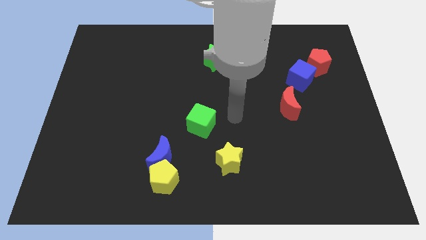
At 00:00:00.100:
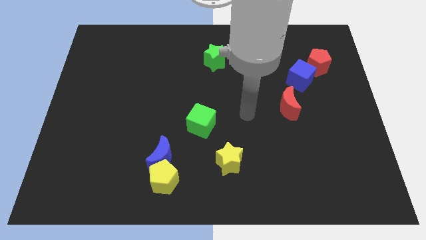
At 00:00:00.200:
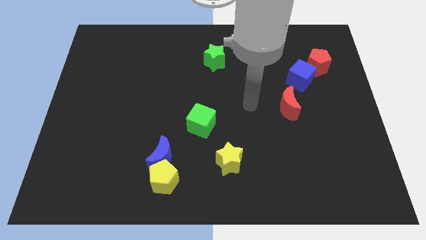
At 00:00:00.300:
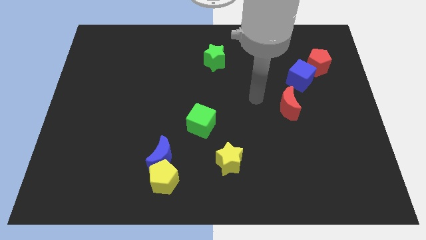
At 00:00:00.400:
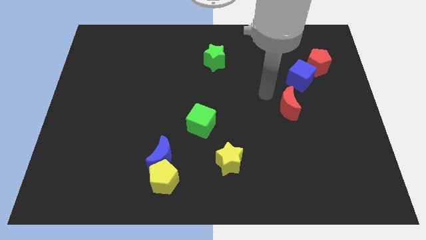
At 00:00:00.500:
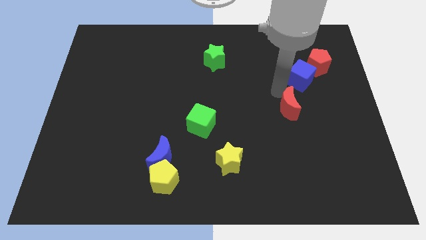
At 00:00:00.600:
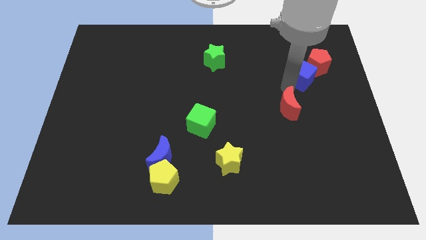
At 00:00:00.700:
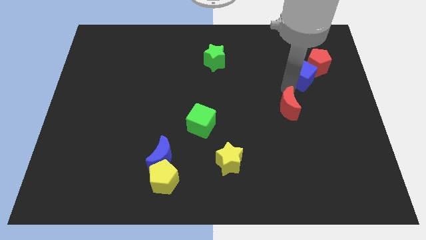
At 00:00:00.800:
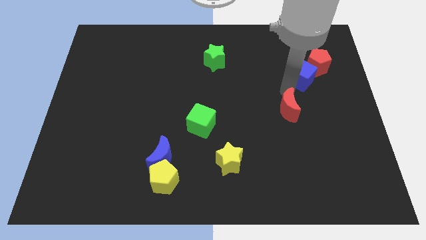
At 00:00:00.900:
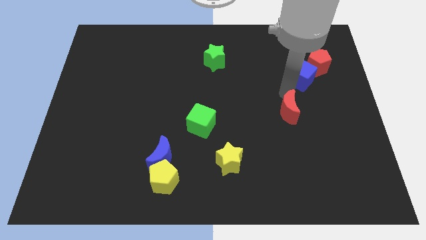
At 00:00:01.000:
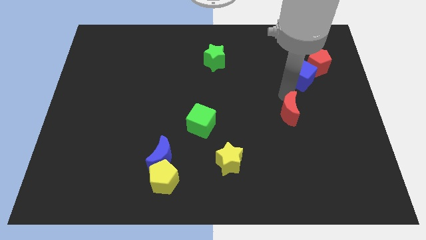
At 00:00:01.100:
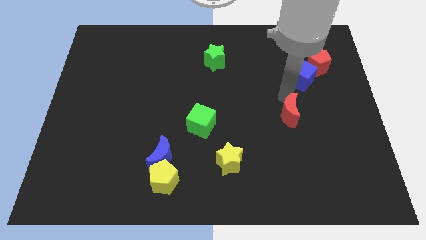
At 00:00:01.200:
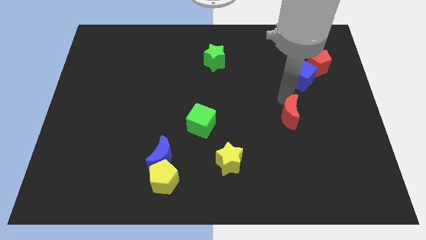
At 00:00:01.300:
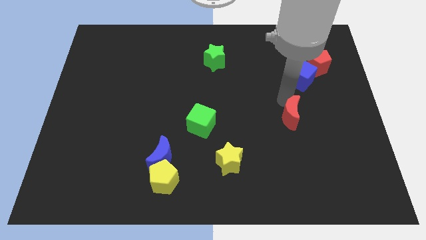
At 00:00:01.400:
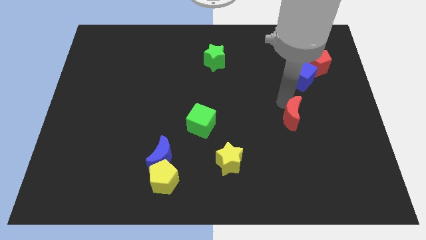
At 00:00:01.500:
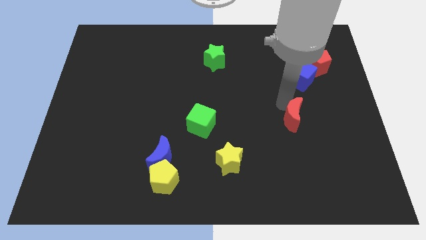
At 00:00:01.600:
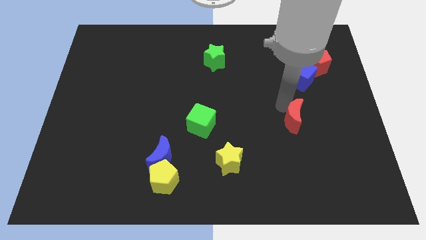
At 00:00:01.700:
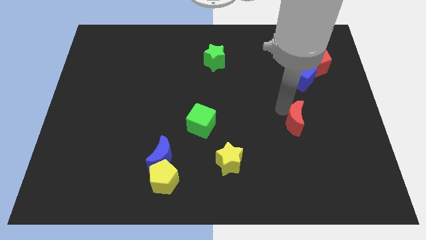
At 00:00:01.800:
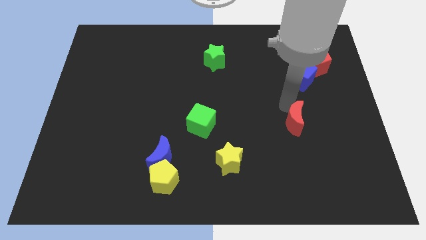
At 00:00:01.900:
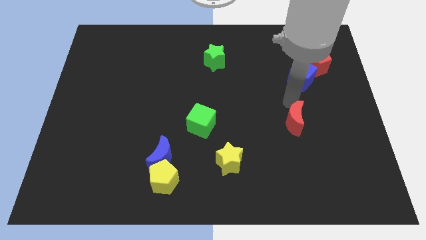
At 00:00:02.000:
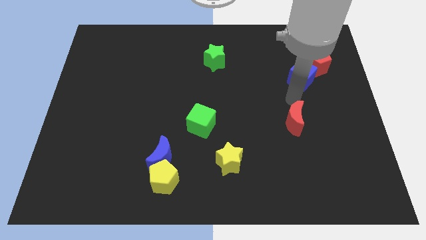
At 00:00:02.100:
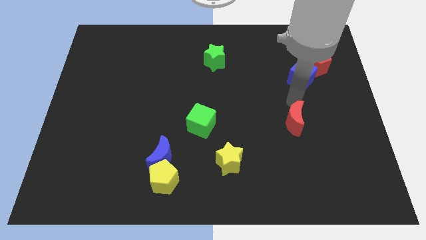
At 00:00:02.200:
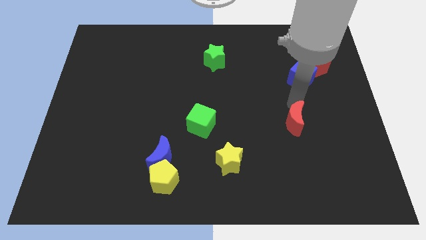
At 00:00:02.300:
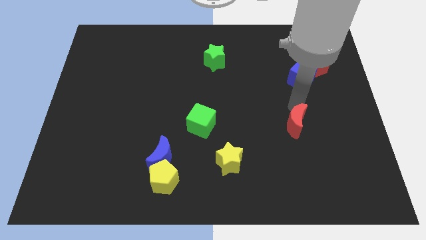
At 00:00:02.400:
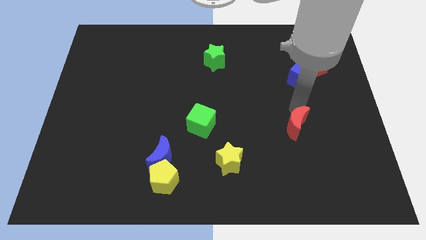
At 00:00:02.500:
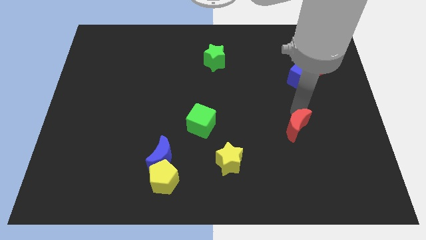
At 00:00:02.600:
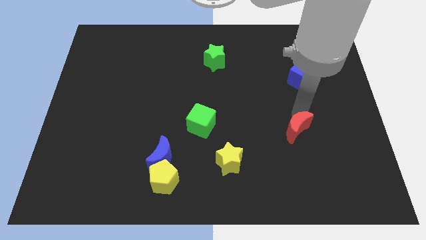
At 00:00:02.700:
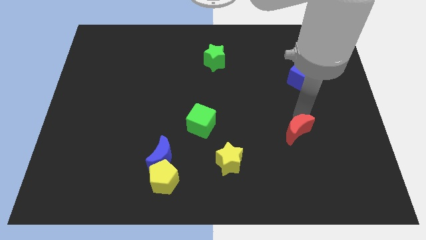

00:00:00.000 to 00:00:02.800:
slide the red moon downwards a little bit

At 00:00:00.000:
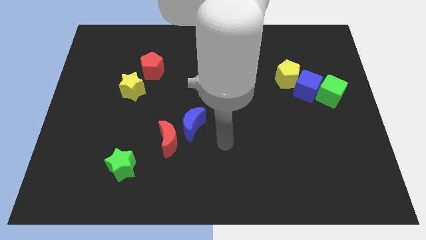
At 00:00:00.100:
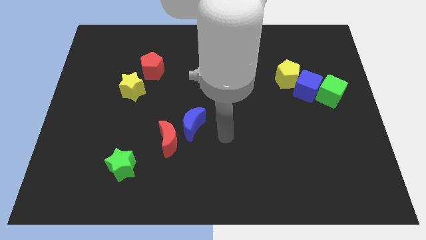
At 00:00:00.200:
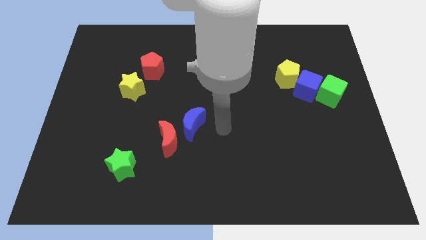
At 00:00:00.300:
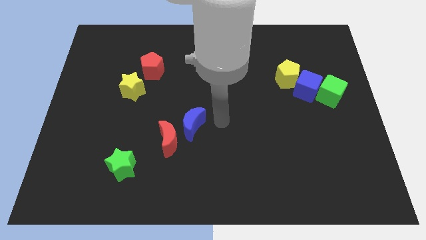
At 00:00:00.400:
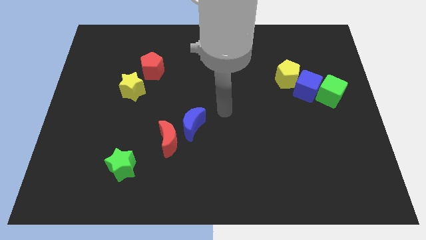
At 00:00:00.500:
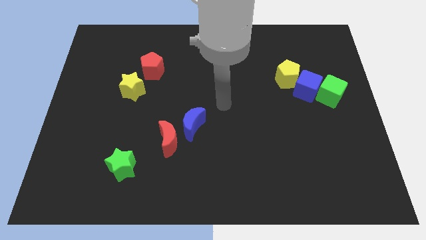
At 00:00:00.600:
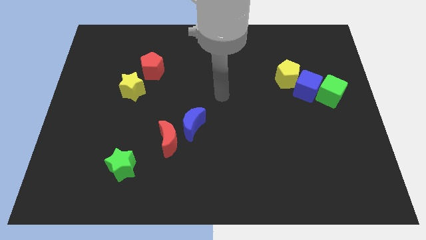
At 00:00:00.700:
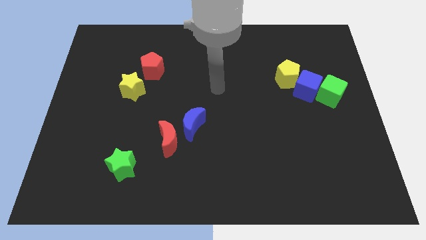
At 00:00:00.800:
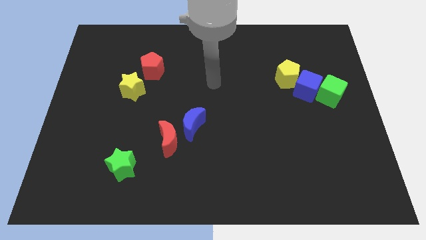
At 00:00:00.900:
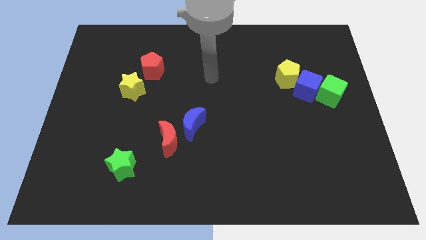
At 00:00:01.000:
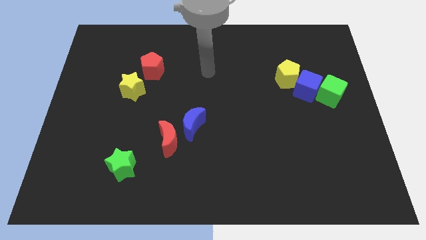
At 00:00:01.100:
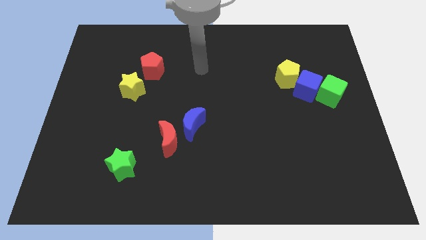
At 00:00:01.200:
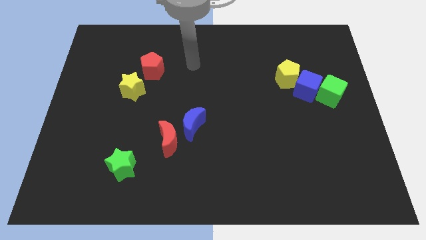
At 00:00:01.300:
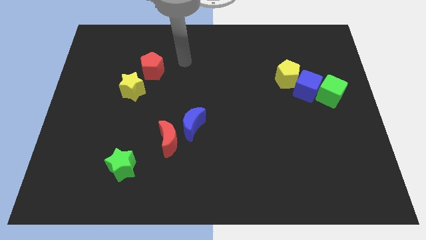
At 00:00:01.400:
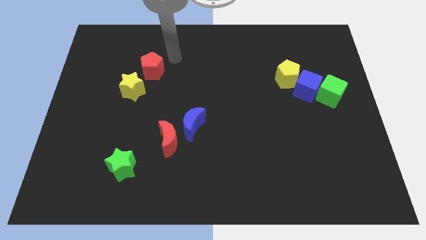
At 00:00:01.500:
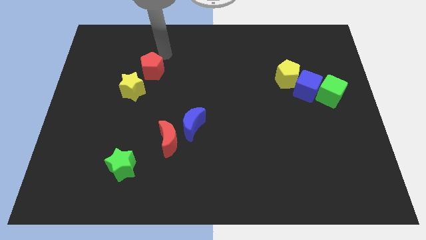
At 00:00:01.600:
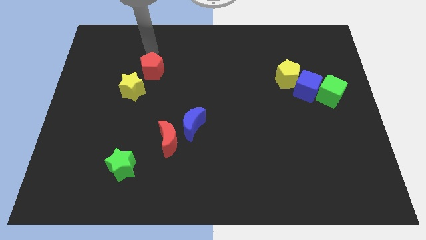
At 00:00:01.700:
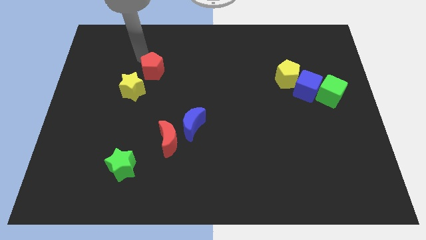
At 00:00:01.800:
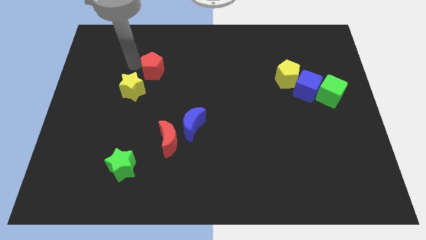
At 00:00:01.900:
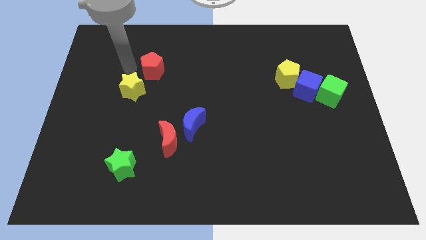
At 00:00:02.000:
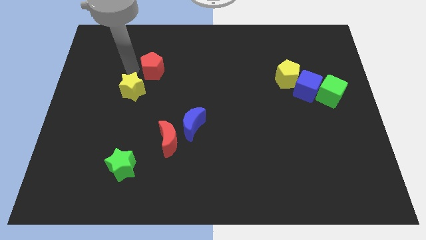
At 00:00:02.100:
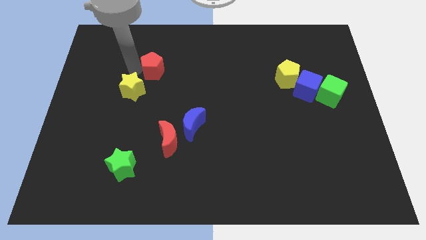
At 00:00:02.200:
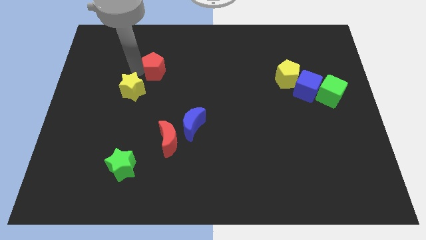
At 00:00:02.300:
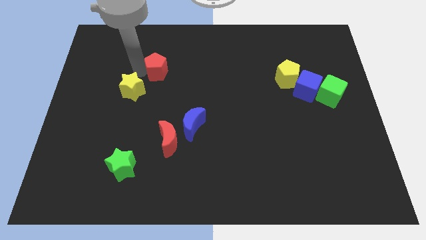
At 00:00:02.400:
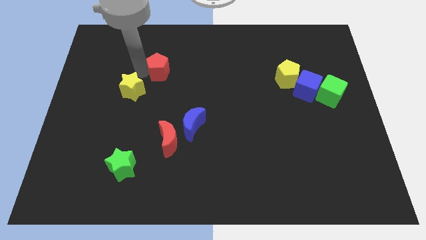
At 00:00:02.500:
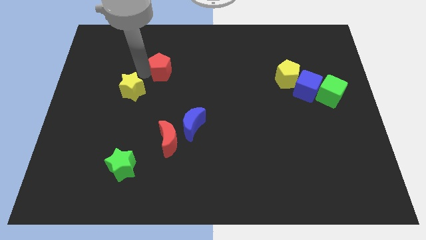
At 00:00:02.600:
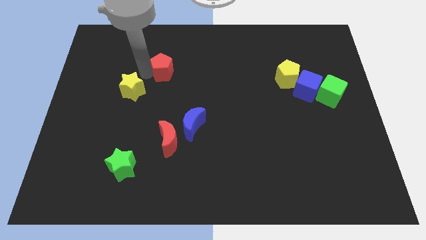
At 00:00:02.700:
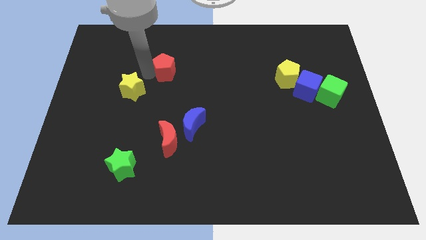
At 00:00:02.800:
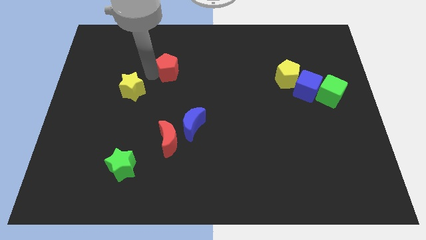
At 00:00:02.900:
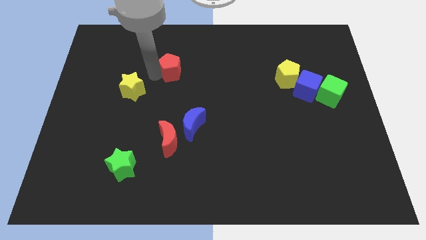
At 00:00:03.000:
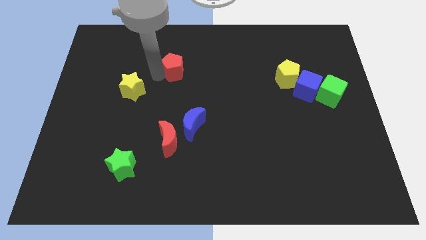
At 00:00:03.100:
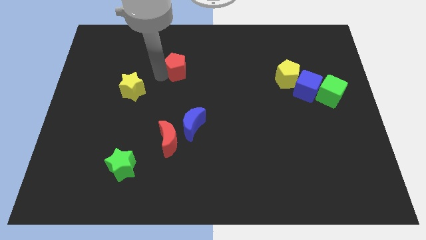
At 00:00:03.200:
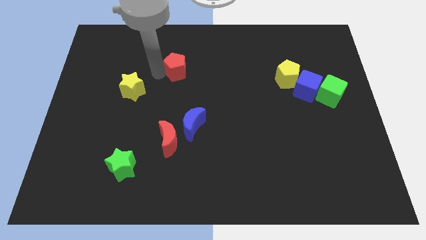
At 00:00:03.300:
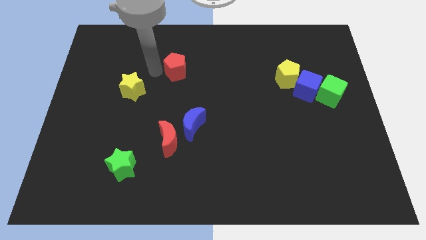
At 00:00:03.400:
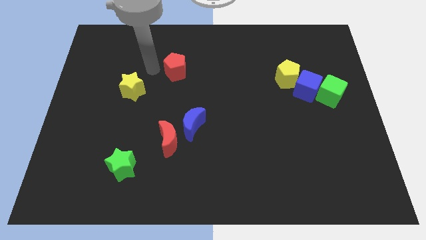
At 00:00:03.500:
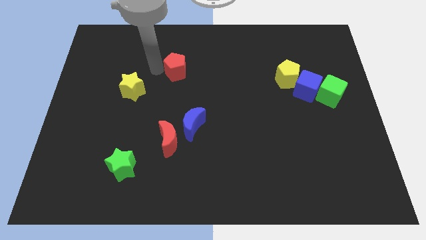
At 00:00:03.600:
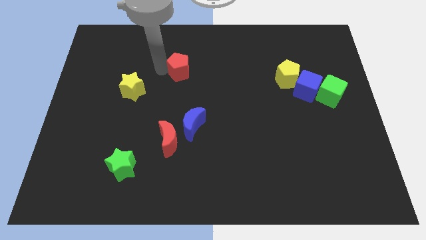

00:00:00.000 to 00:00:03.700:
slightly push the red pentagon right

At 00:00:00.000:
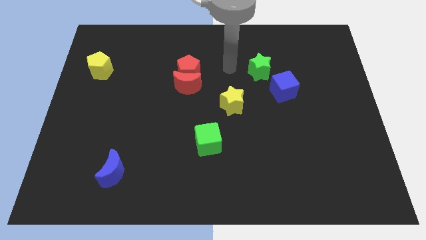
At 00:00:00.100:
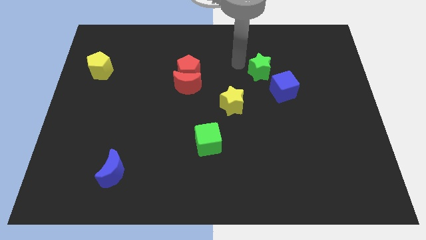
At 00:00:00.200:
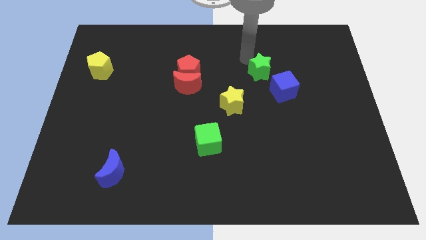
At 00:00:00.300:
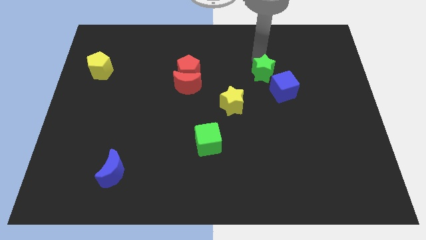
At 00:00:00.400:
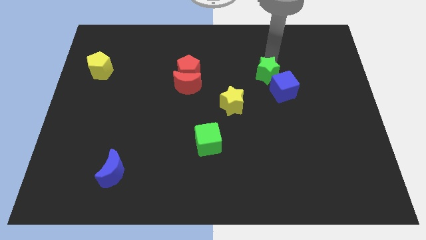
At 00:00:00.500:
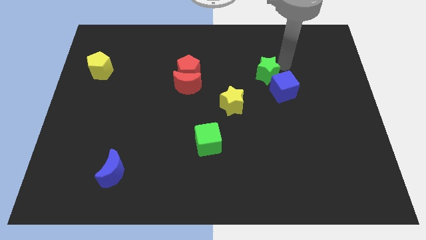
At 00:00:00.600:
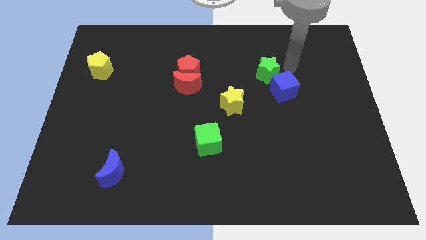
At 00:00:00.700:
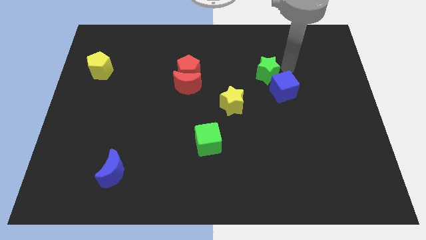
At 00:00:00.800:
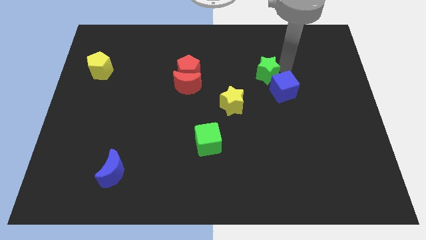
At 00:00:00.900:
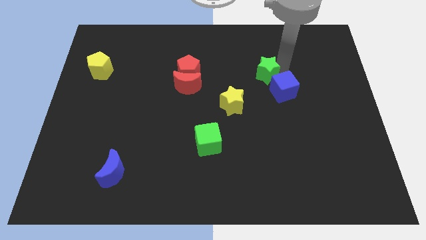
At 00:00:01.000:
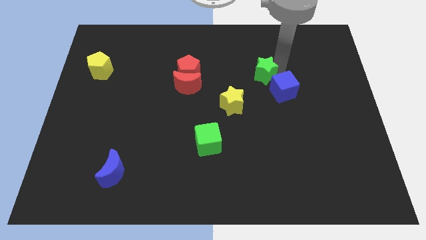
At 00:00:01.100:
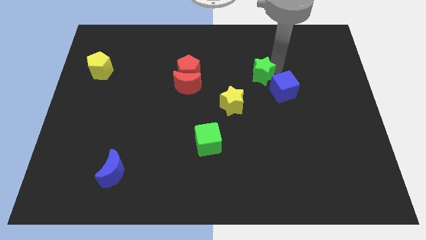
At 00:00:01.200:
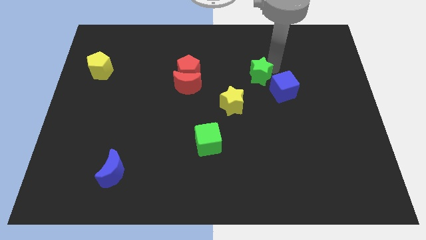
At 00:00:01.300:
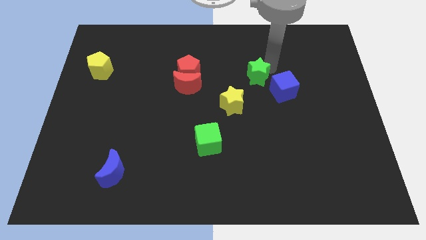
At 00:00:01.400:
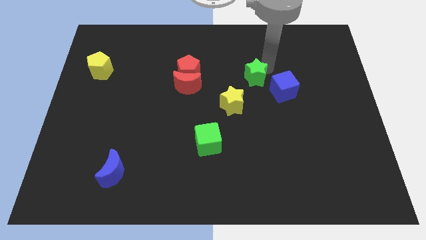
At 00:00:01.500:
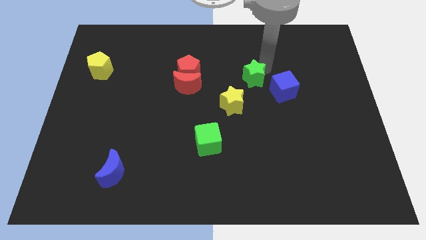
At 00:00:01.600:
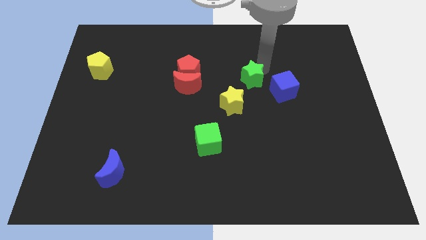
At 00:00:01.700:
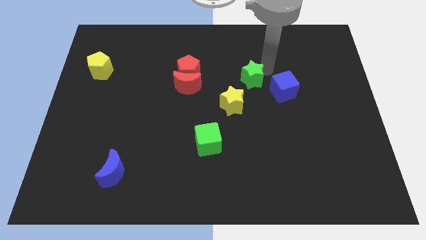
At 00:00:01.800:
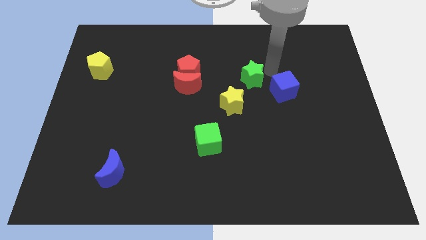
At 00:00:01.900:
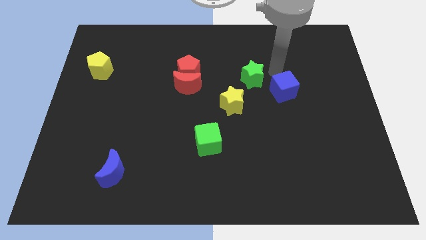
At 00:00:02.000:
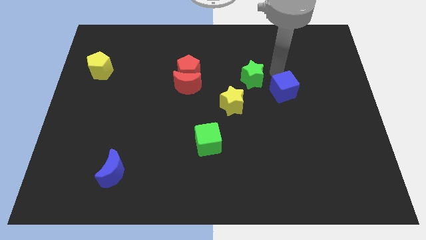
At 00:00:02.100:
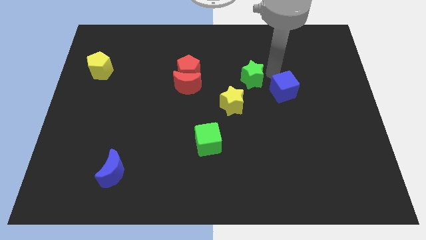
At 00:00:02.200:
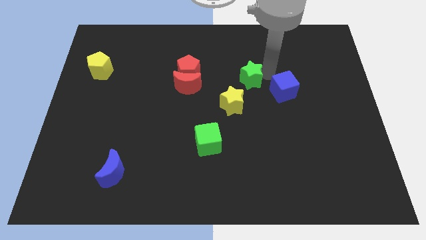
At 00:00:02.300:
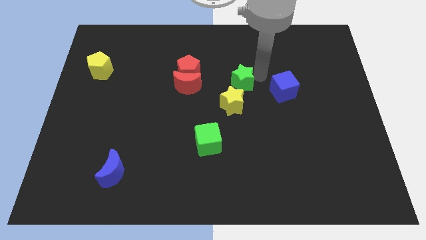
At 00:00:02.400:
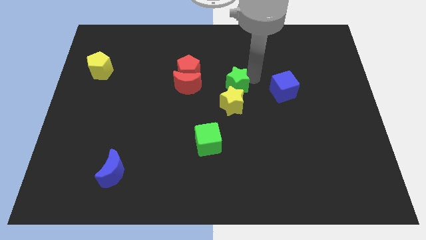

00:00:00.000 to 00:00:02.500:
move the green star downwards and then to the left slightly
